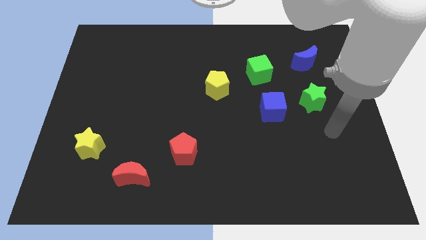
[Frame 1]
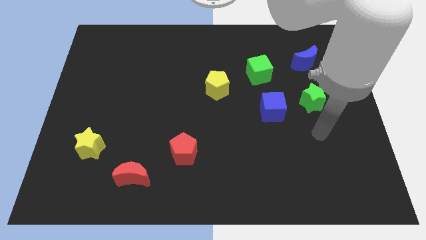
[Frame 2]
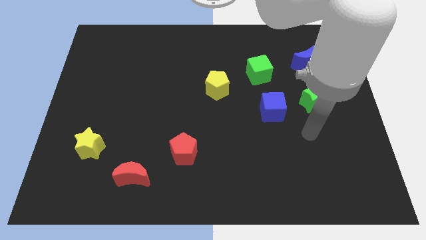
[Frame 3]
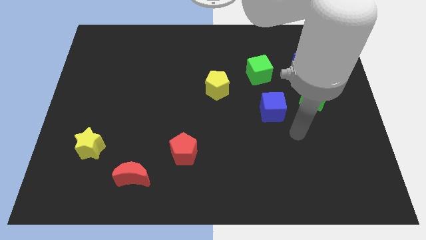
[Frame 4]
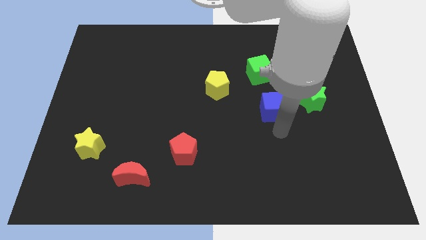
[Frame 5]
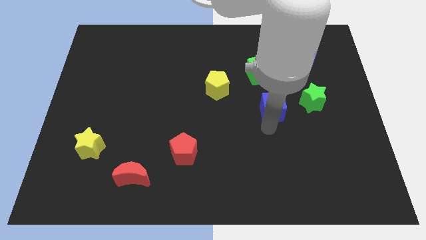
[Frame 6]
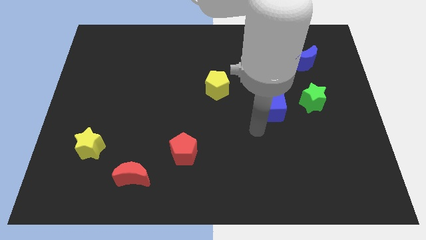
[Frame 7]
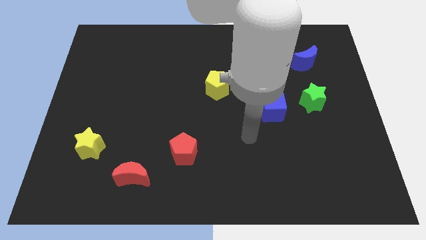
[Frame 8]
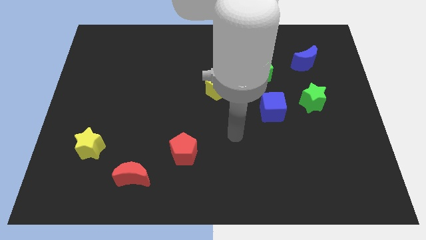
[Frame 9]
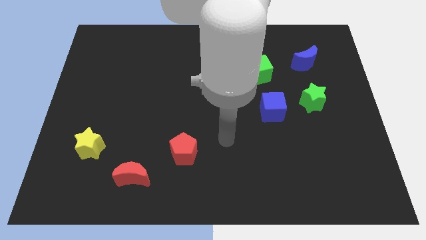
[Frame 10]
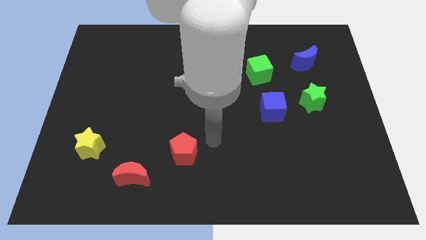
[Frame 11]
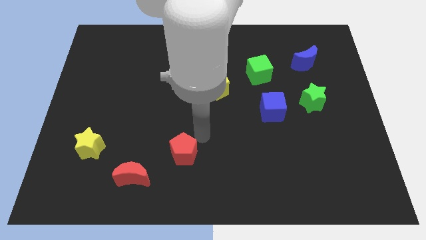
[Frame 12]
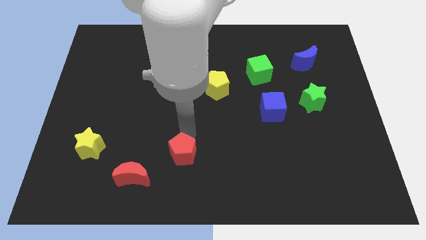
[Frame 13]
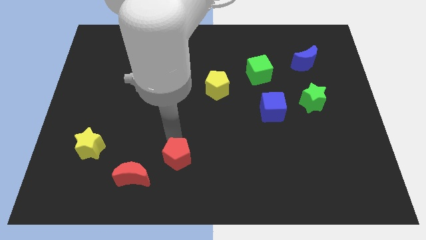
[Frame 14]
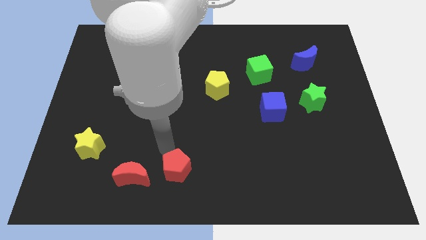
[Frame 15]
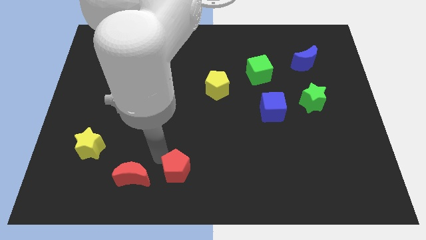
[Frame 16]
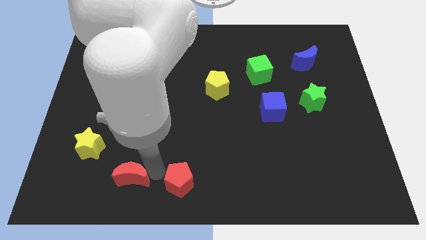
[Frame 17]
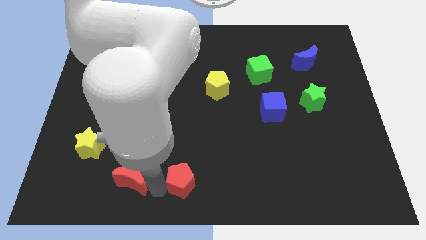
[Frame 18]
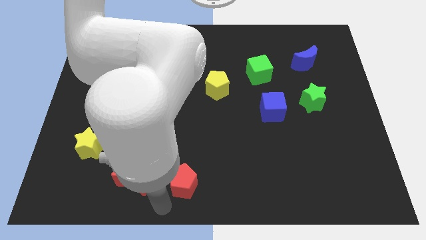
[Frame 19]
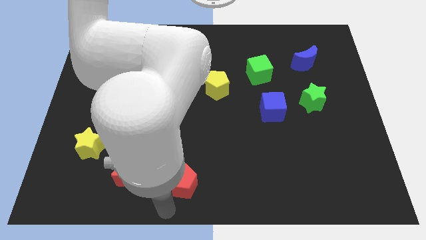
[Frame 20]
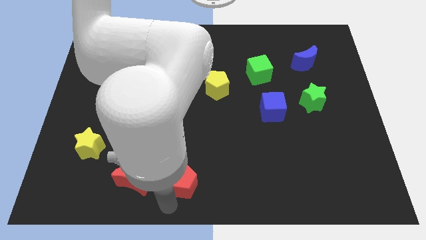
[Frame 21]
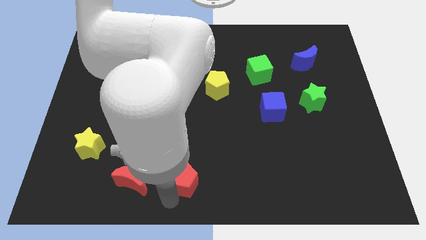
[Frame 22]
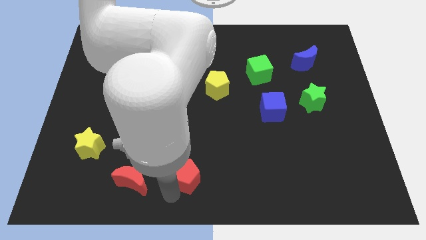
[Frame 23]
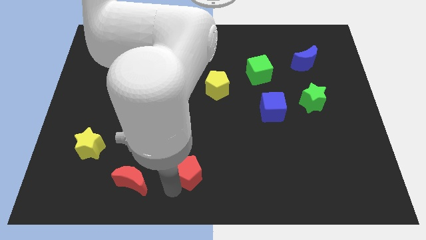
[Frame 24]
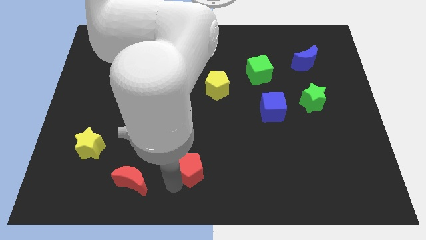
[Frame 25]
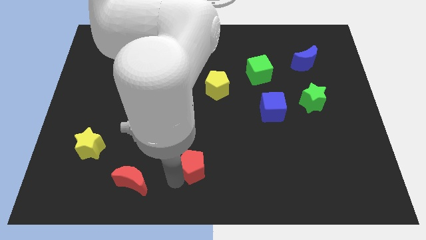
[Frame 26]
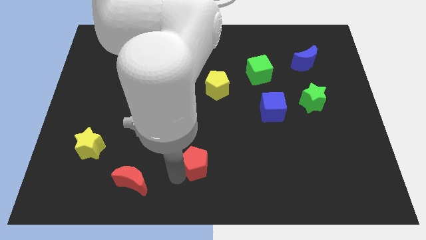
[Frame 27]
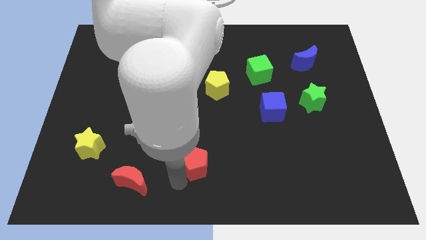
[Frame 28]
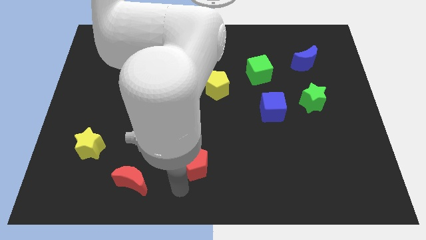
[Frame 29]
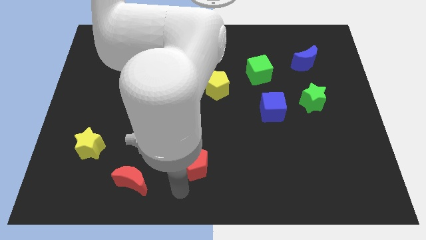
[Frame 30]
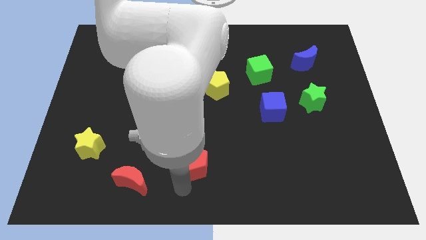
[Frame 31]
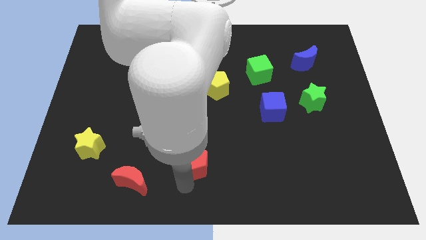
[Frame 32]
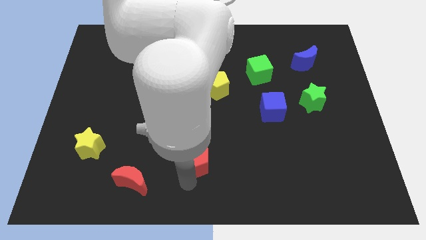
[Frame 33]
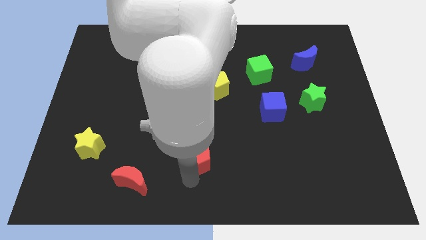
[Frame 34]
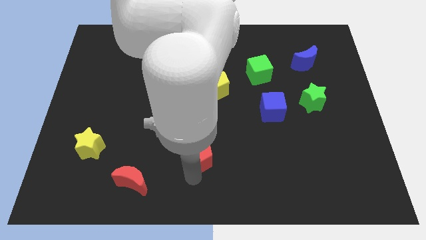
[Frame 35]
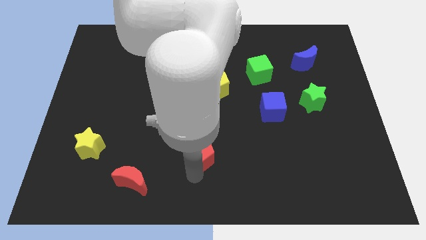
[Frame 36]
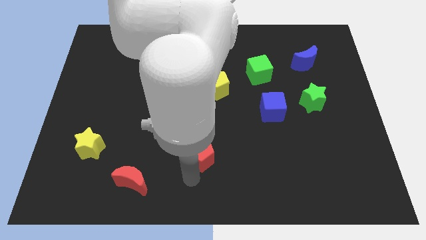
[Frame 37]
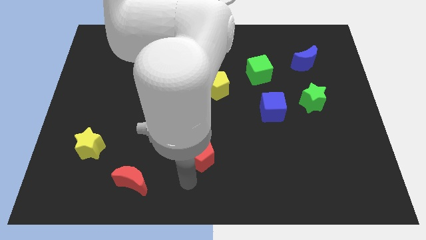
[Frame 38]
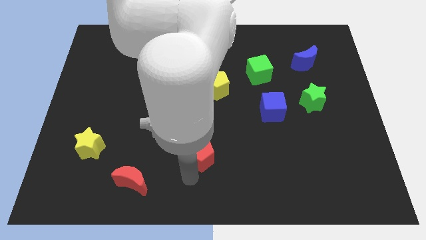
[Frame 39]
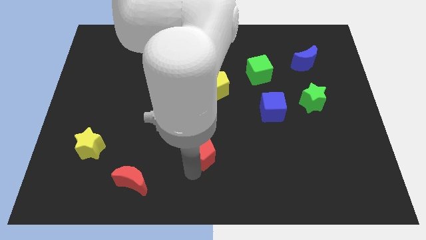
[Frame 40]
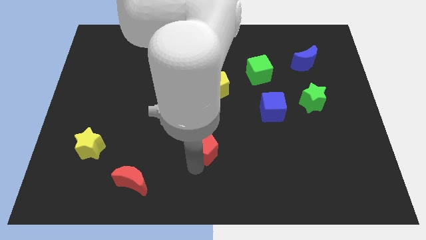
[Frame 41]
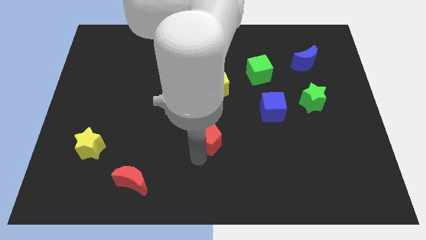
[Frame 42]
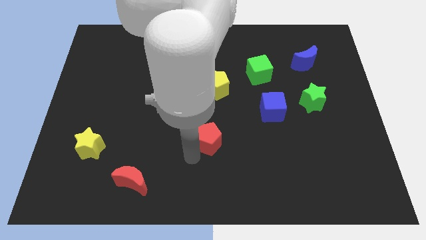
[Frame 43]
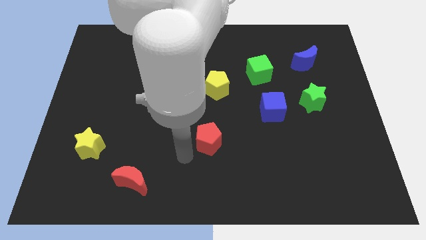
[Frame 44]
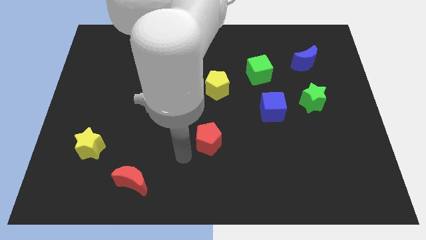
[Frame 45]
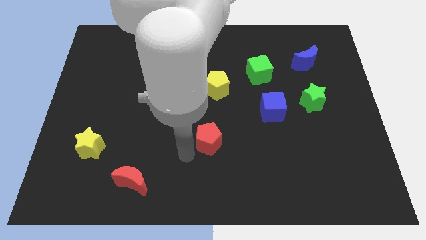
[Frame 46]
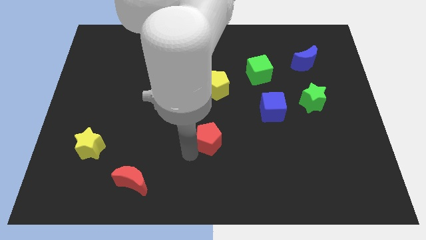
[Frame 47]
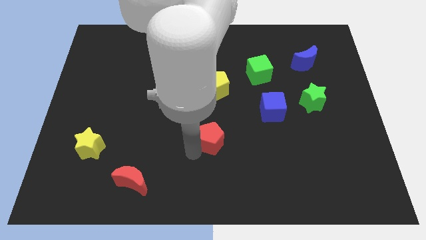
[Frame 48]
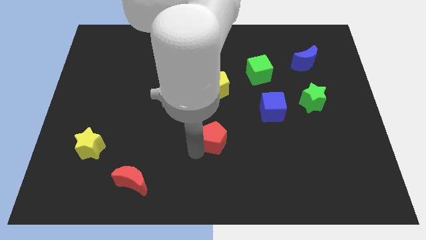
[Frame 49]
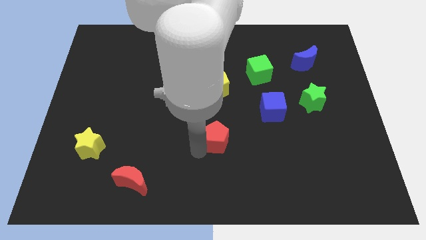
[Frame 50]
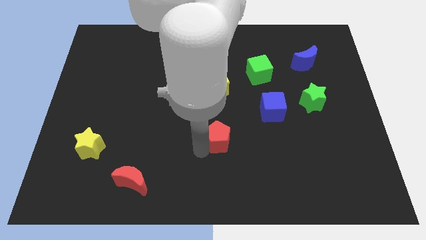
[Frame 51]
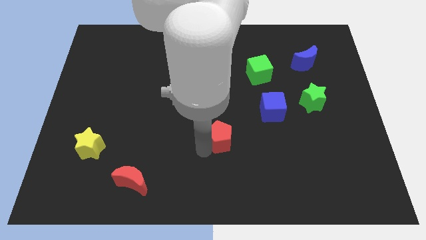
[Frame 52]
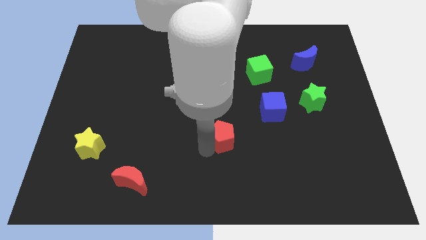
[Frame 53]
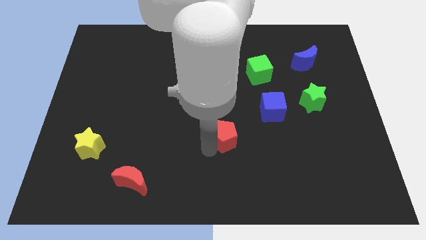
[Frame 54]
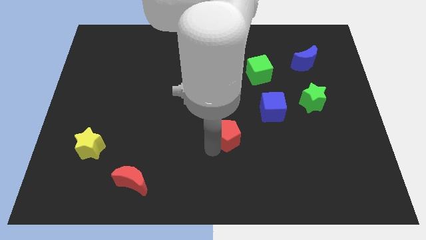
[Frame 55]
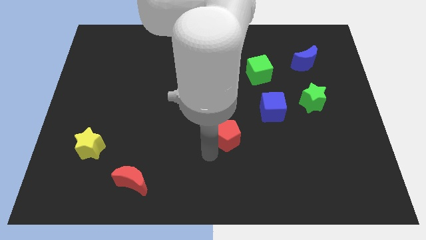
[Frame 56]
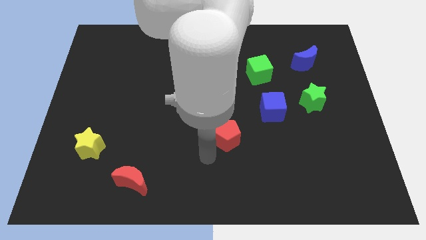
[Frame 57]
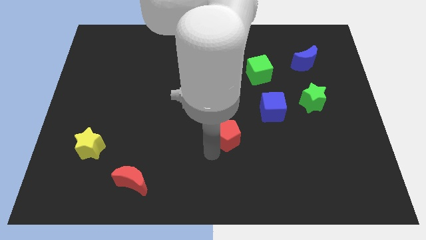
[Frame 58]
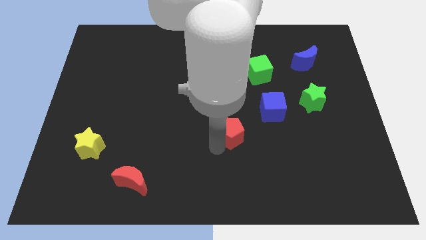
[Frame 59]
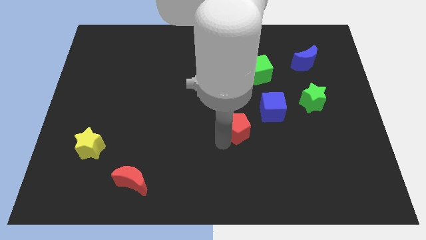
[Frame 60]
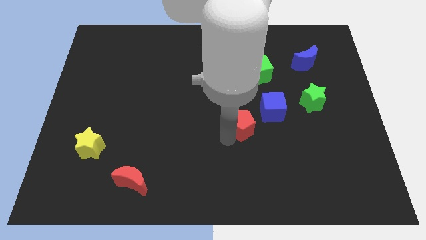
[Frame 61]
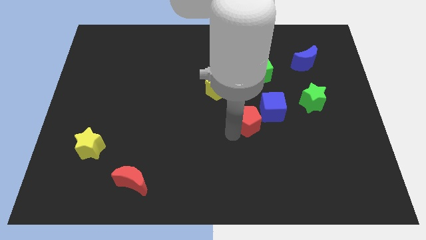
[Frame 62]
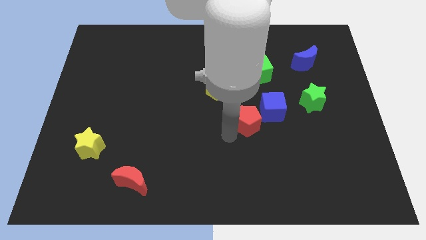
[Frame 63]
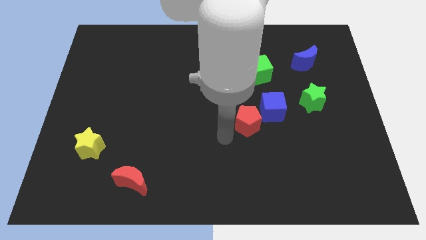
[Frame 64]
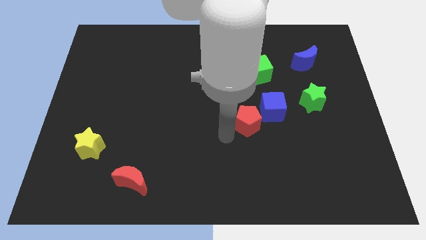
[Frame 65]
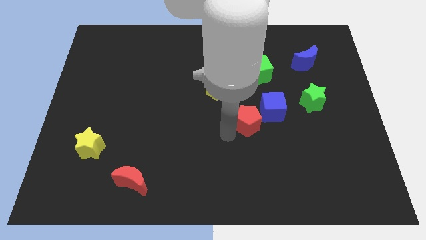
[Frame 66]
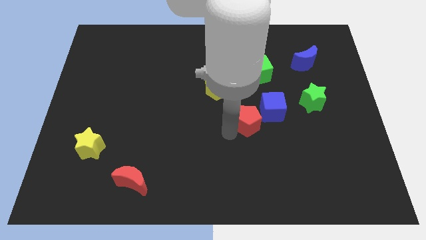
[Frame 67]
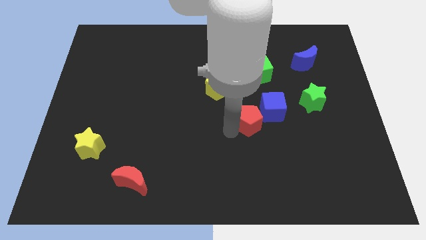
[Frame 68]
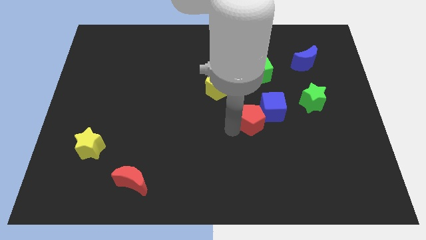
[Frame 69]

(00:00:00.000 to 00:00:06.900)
move the red pentagon next to the blue cube

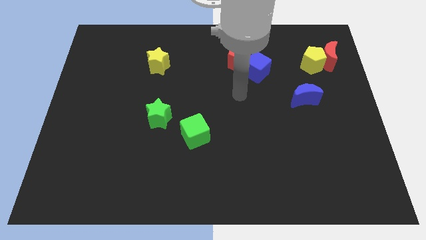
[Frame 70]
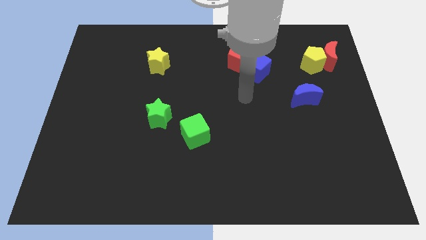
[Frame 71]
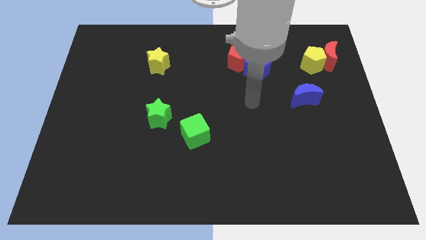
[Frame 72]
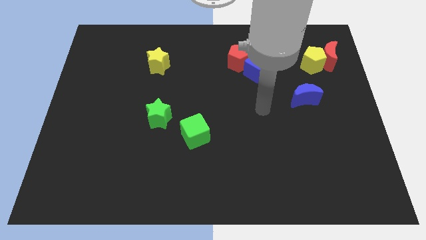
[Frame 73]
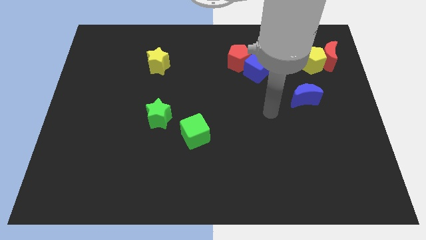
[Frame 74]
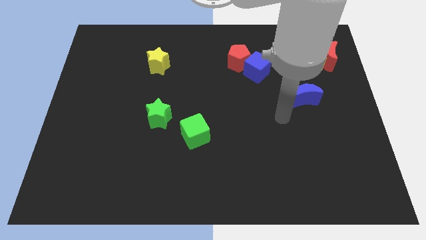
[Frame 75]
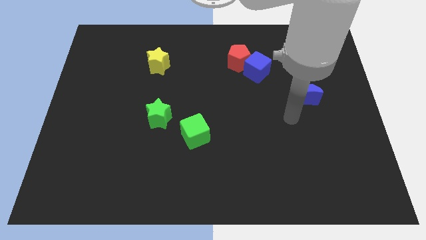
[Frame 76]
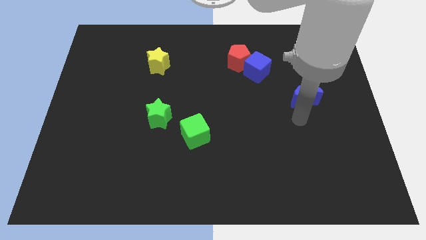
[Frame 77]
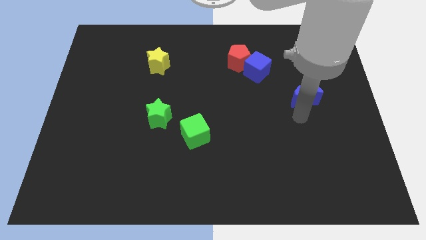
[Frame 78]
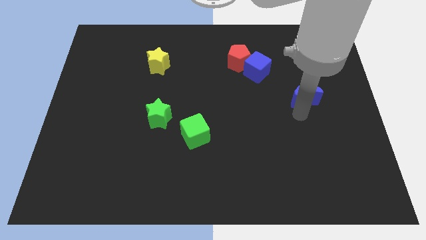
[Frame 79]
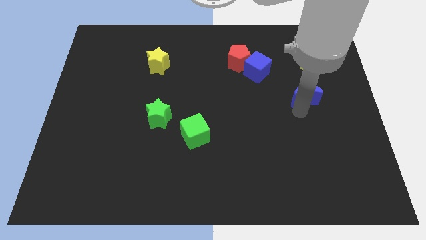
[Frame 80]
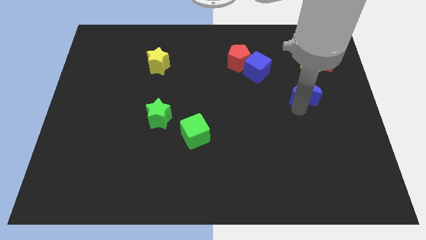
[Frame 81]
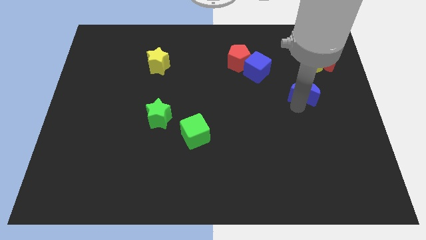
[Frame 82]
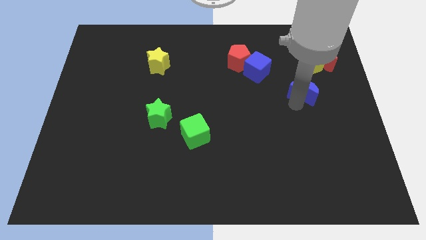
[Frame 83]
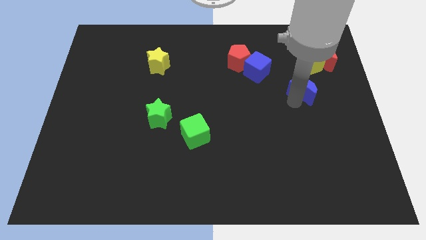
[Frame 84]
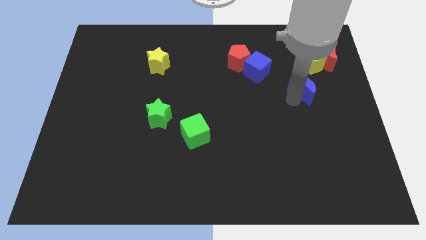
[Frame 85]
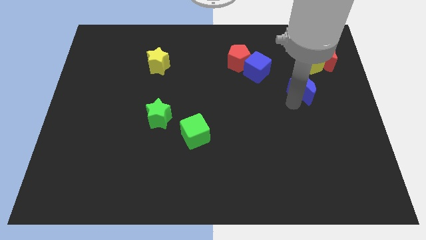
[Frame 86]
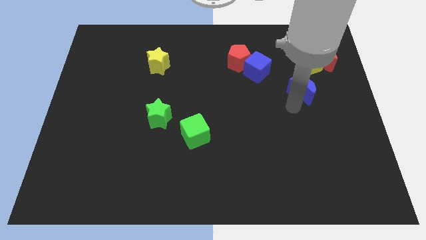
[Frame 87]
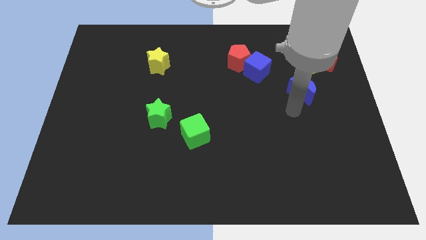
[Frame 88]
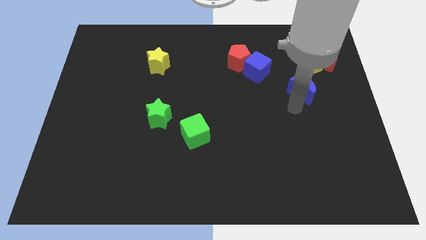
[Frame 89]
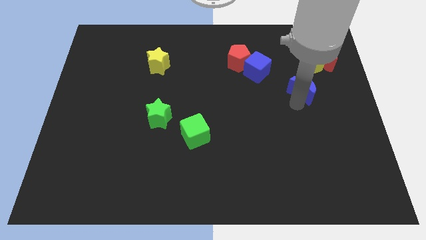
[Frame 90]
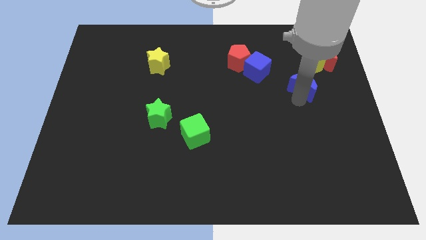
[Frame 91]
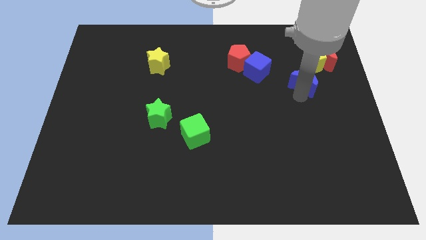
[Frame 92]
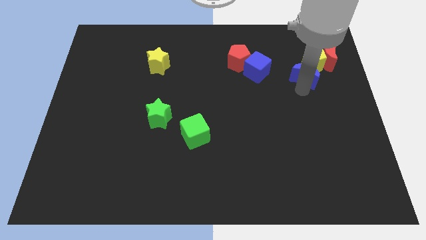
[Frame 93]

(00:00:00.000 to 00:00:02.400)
push the blue moon towards the yellow pentagon
